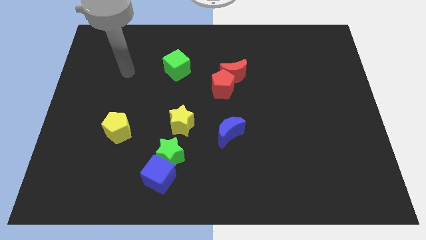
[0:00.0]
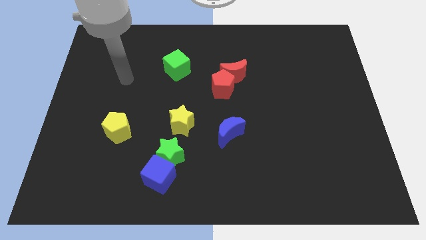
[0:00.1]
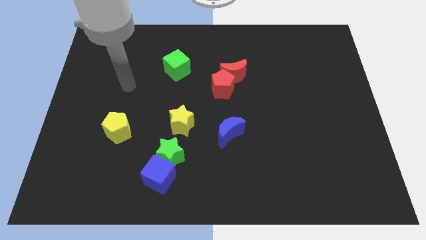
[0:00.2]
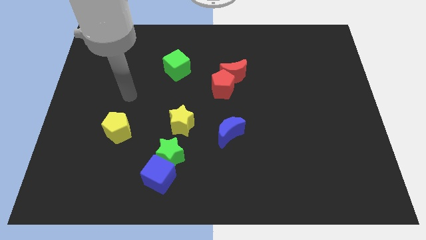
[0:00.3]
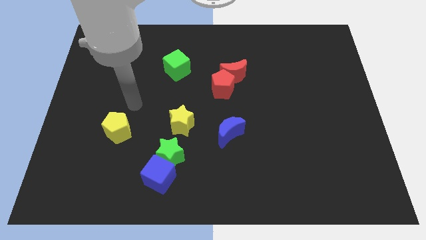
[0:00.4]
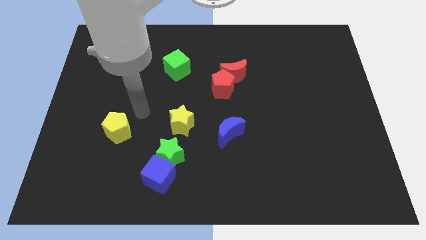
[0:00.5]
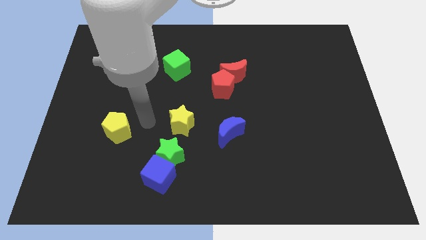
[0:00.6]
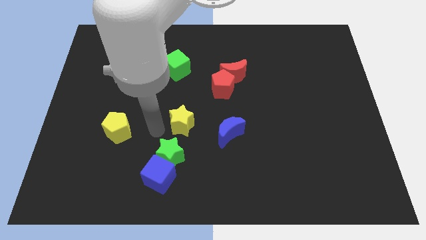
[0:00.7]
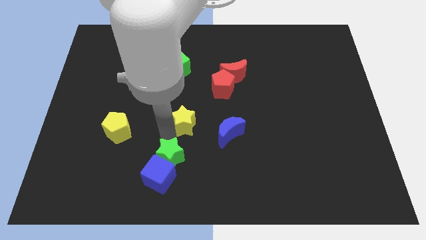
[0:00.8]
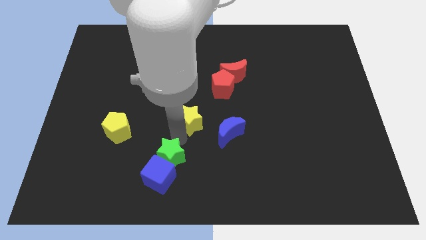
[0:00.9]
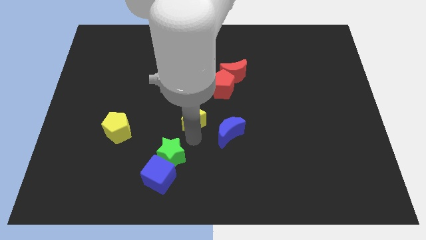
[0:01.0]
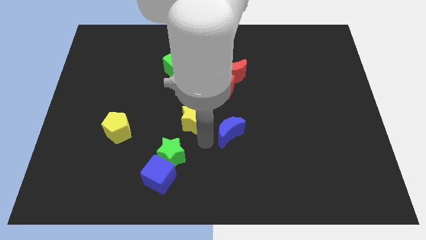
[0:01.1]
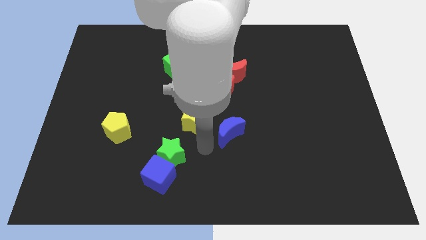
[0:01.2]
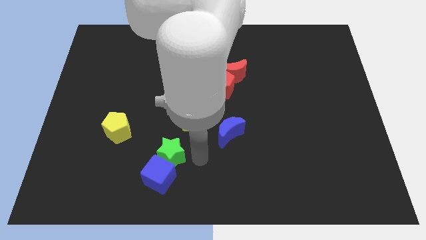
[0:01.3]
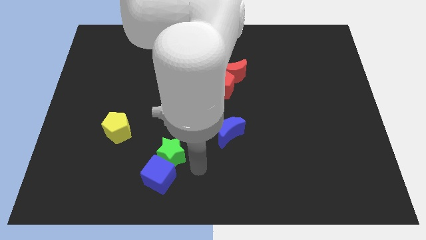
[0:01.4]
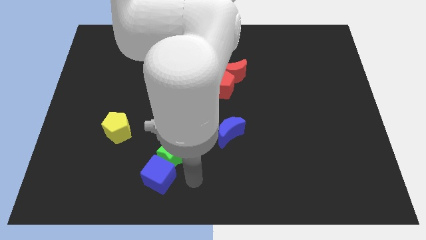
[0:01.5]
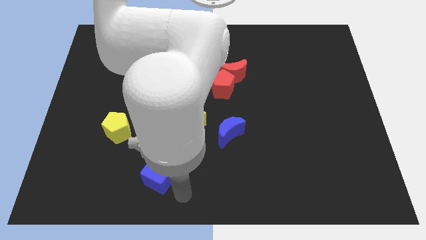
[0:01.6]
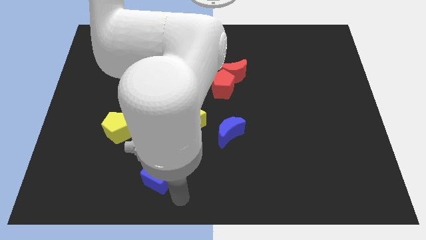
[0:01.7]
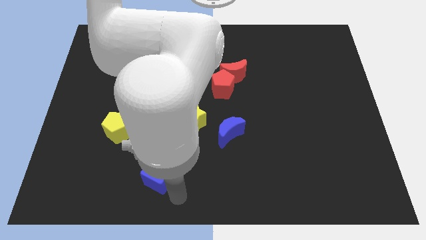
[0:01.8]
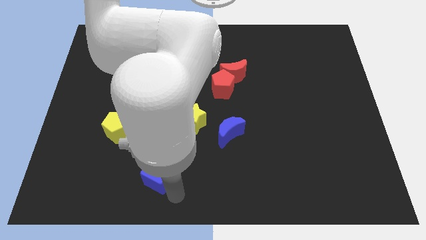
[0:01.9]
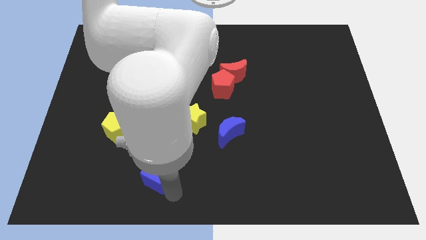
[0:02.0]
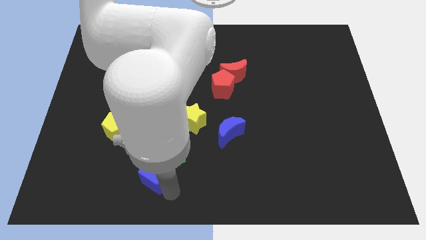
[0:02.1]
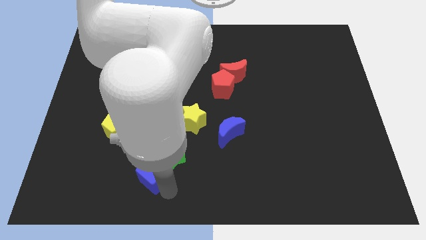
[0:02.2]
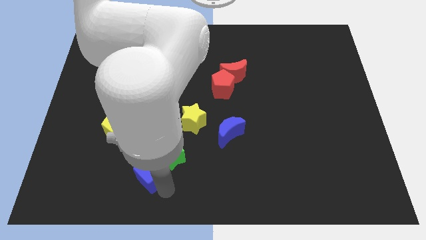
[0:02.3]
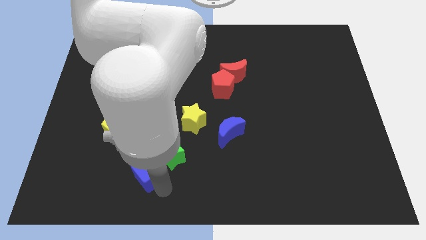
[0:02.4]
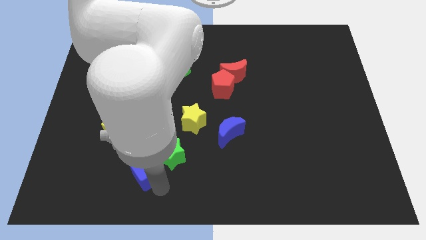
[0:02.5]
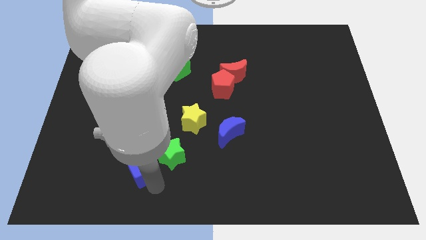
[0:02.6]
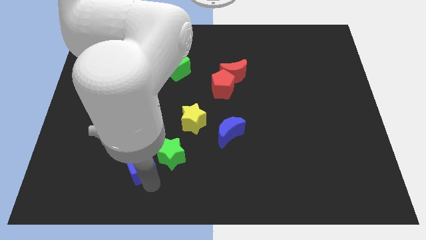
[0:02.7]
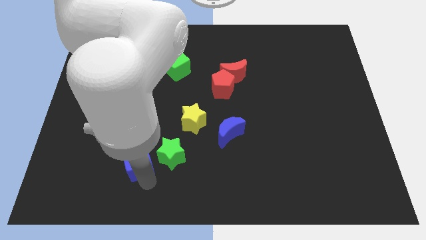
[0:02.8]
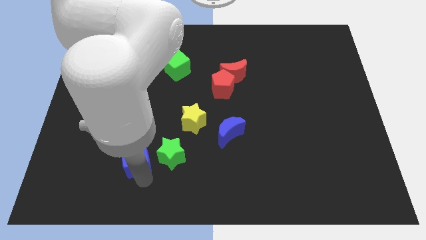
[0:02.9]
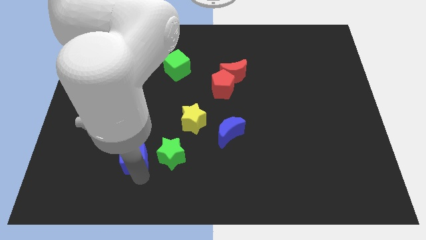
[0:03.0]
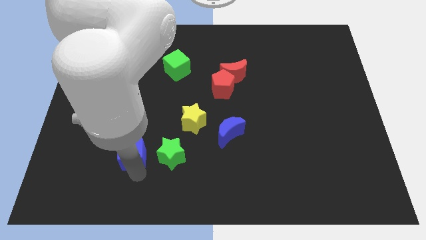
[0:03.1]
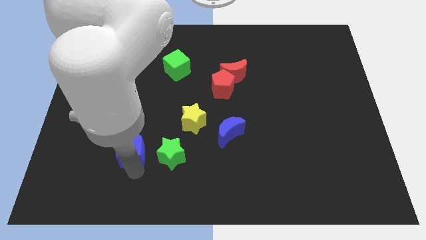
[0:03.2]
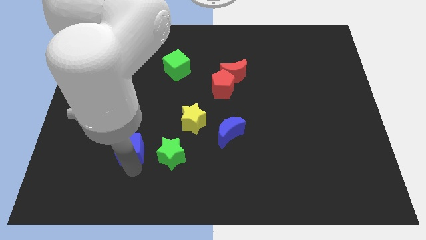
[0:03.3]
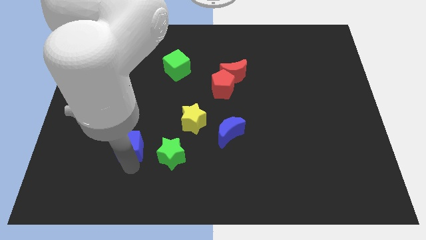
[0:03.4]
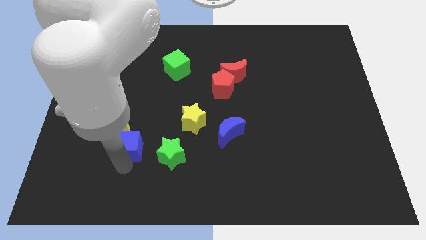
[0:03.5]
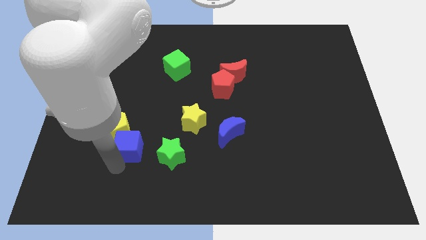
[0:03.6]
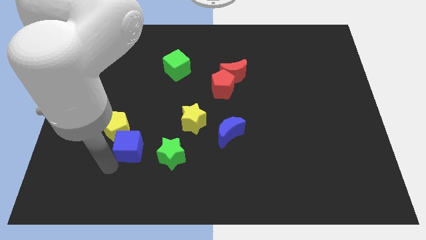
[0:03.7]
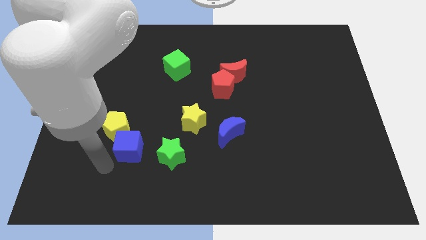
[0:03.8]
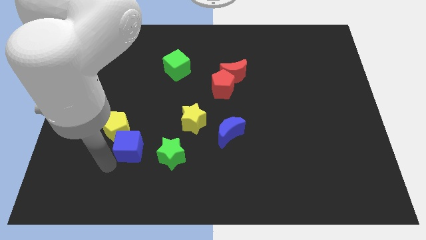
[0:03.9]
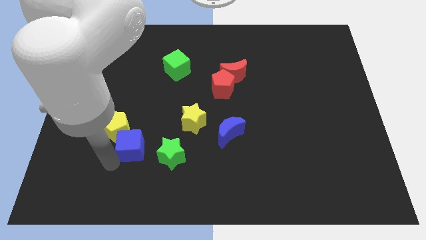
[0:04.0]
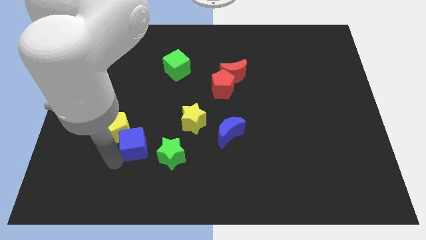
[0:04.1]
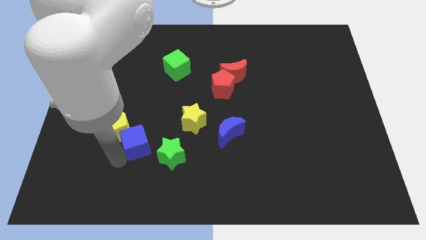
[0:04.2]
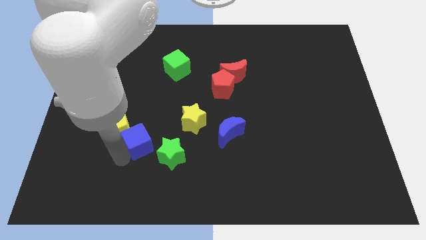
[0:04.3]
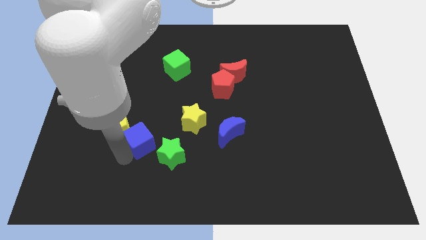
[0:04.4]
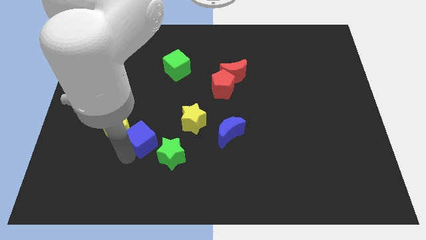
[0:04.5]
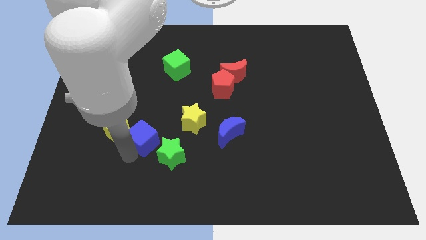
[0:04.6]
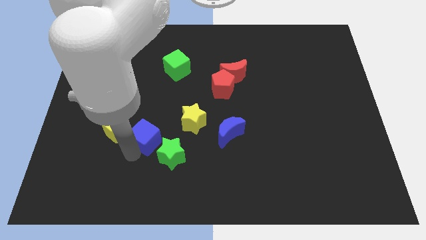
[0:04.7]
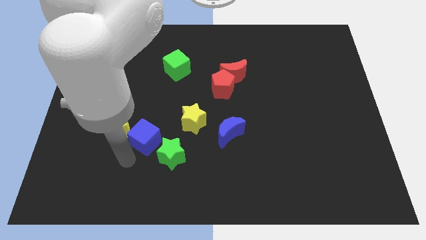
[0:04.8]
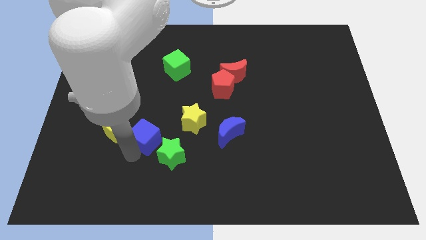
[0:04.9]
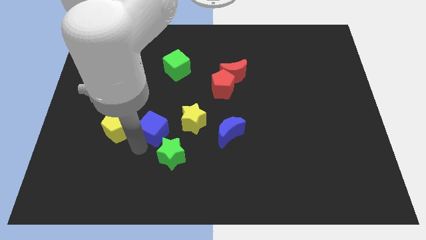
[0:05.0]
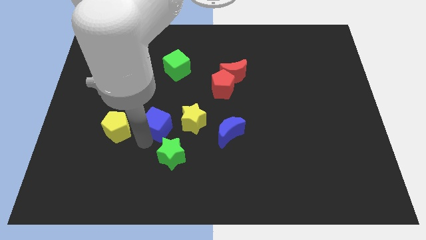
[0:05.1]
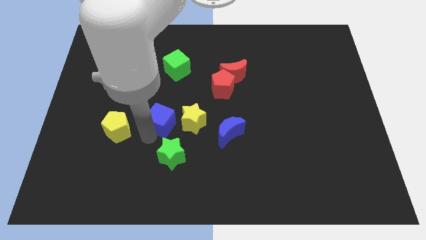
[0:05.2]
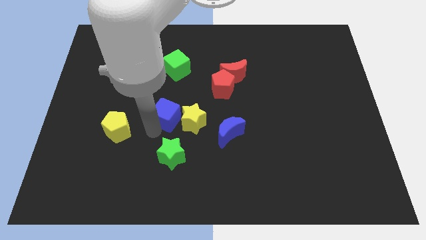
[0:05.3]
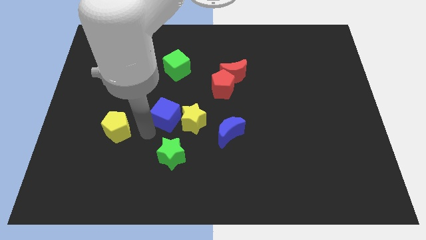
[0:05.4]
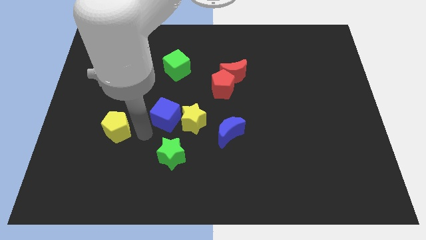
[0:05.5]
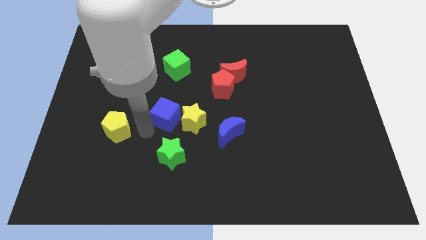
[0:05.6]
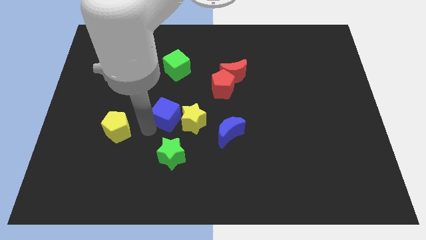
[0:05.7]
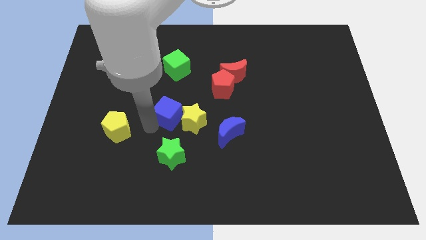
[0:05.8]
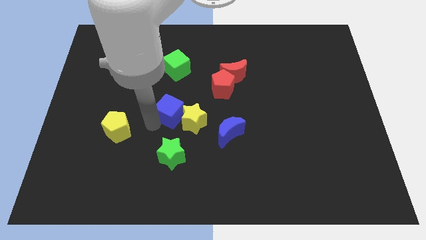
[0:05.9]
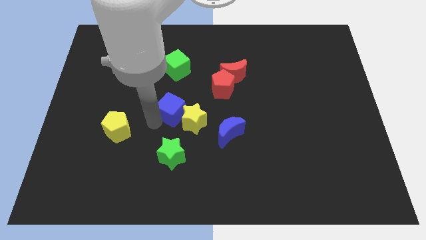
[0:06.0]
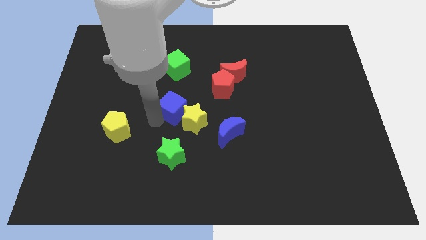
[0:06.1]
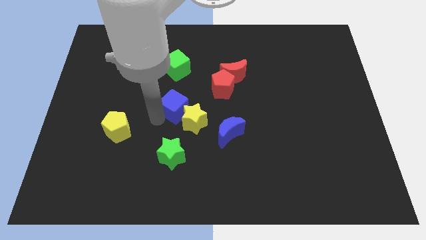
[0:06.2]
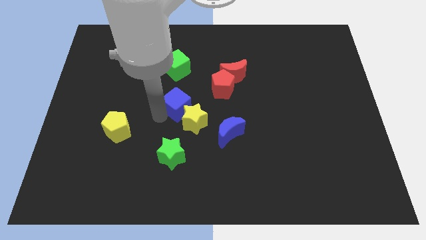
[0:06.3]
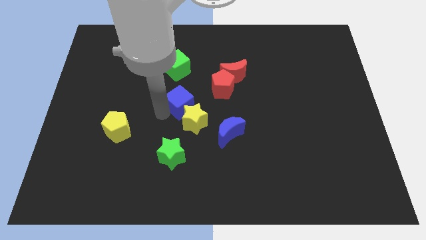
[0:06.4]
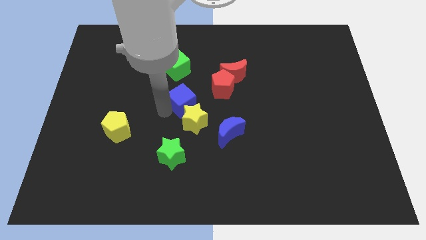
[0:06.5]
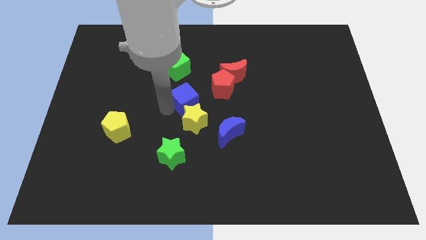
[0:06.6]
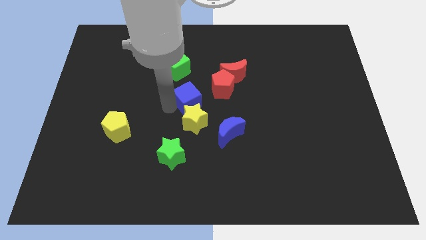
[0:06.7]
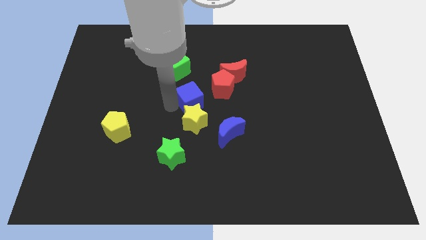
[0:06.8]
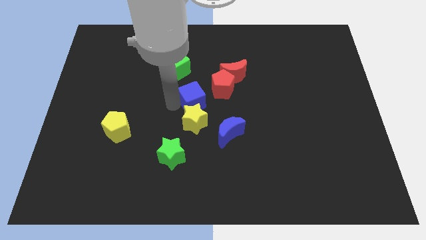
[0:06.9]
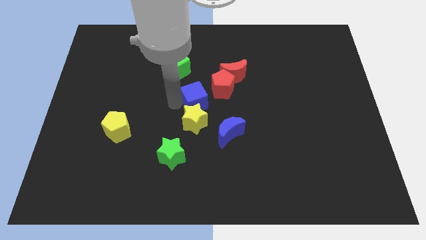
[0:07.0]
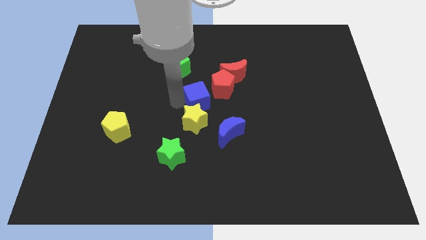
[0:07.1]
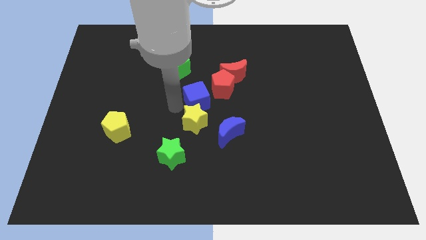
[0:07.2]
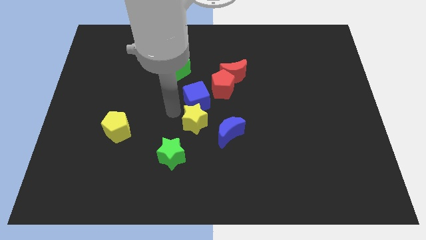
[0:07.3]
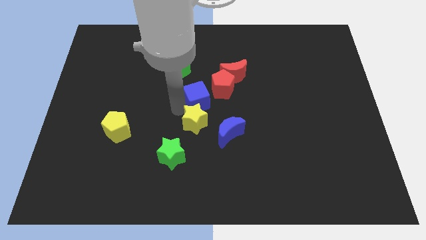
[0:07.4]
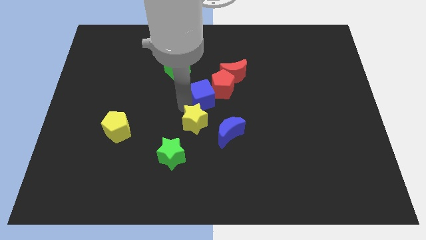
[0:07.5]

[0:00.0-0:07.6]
move the blue cube to the red pentagon
